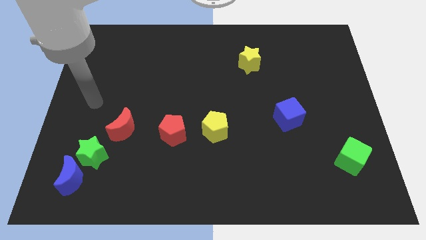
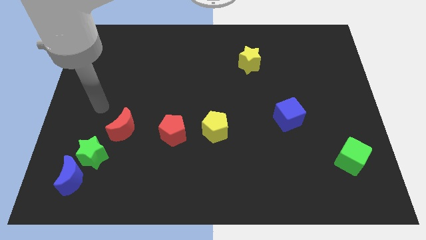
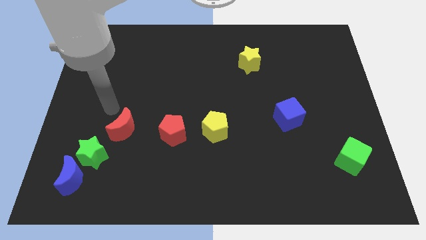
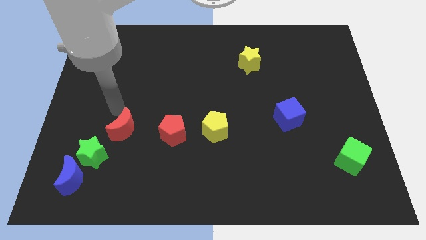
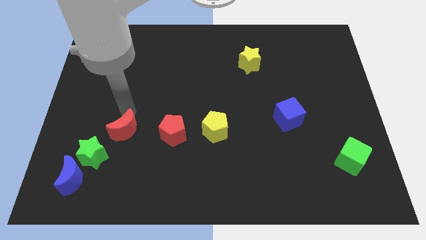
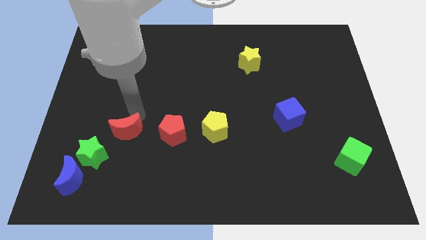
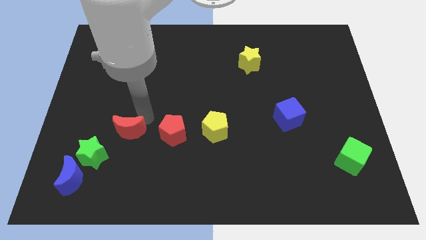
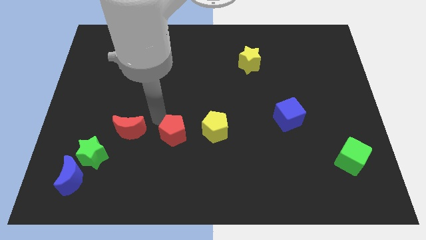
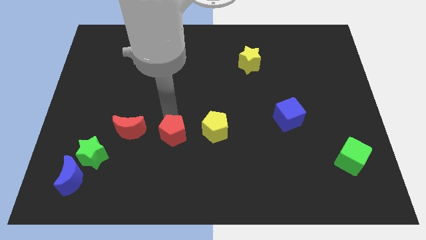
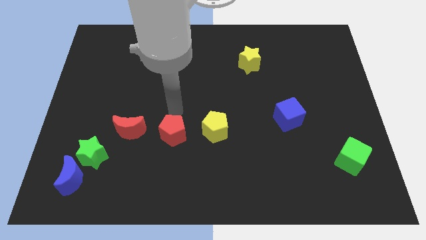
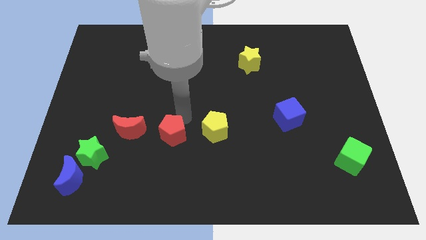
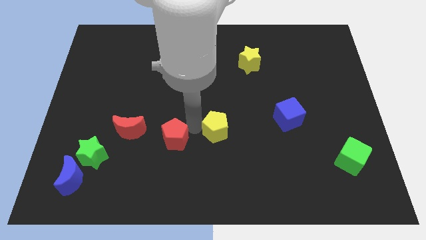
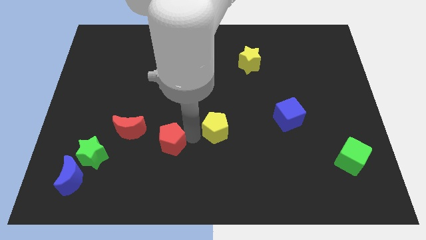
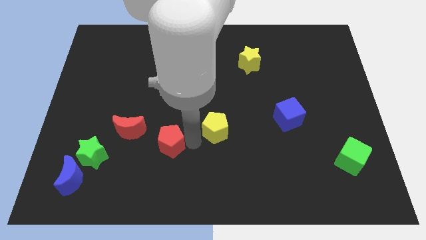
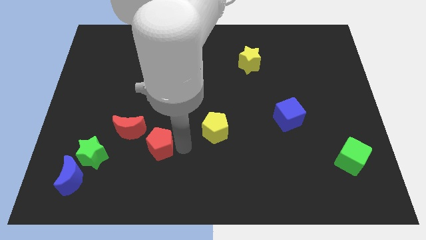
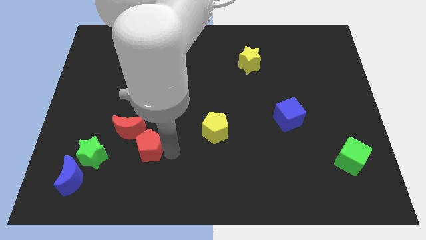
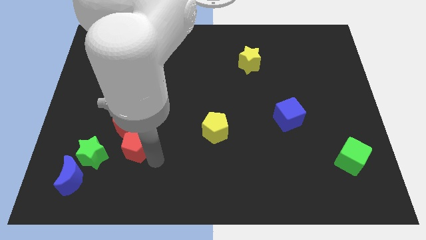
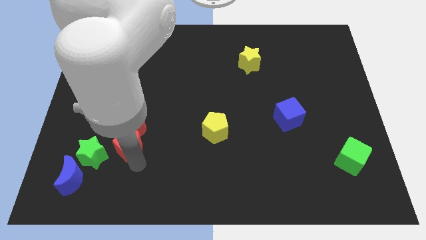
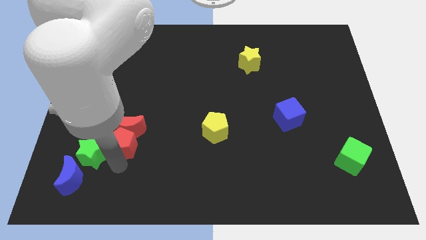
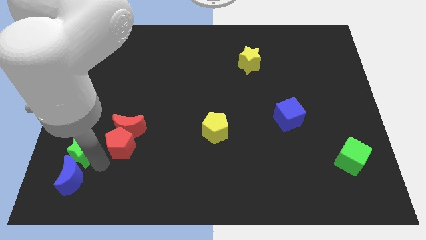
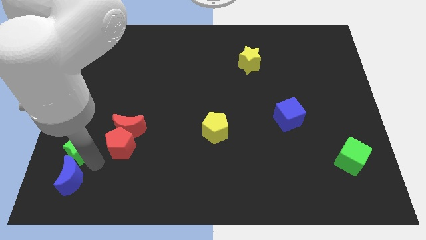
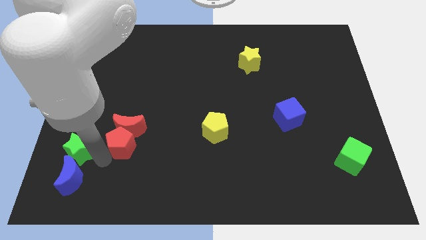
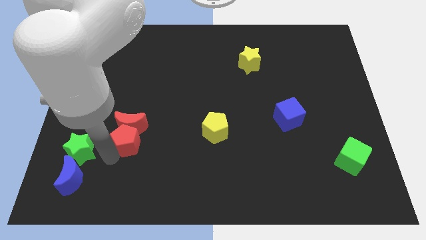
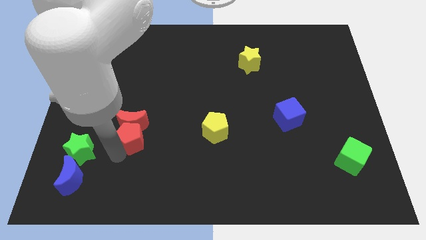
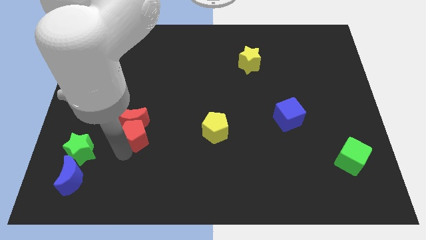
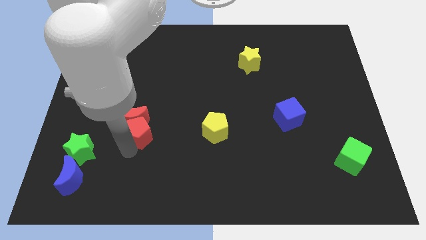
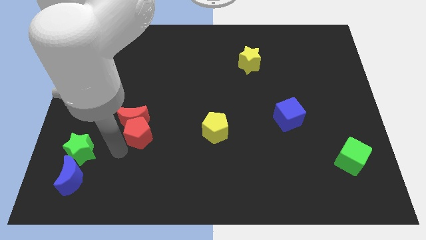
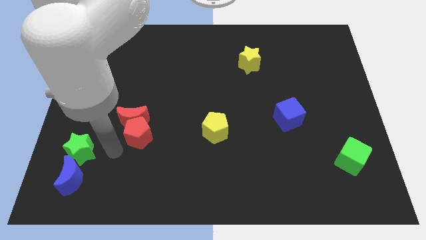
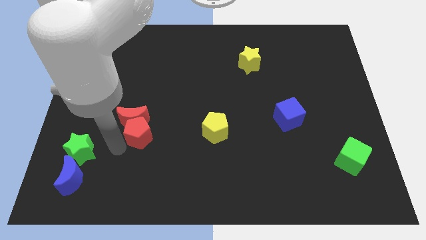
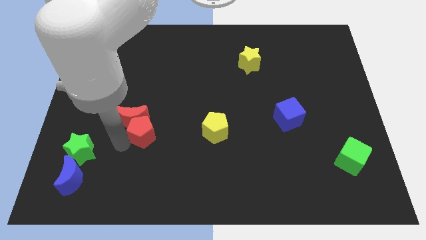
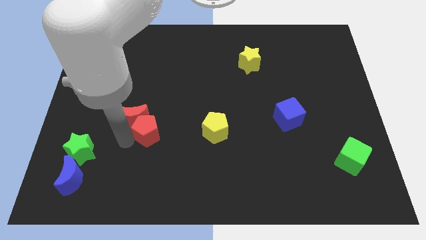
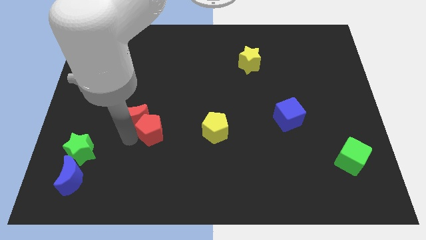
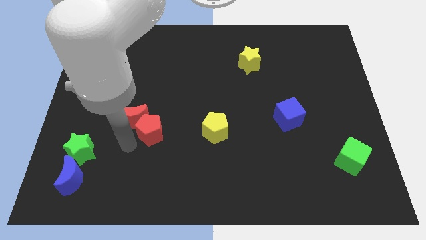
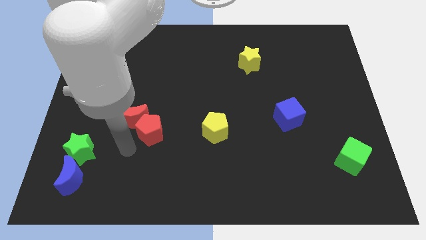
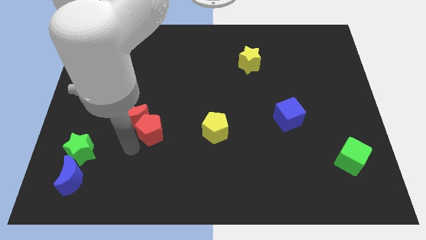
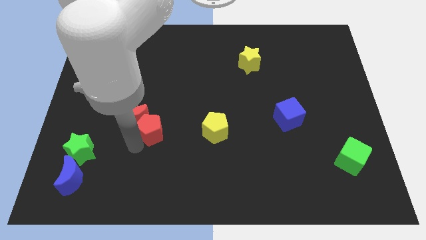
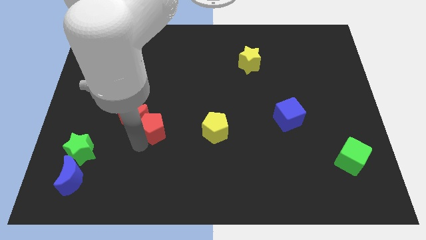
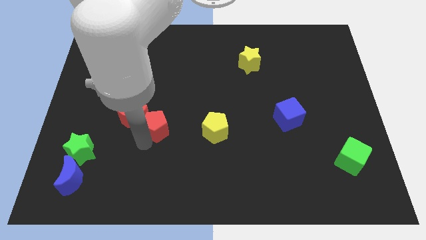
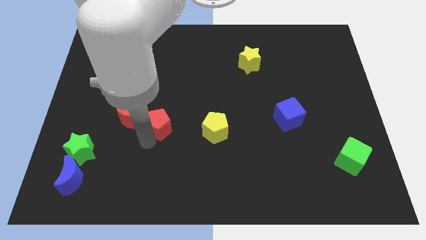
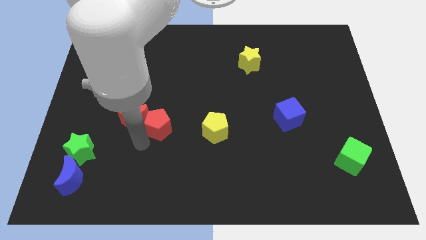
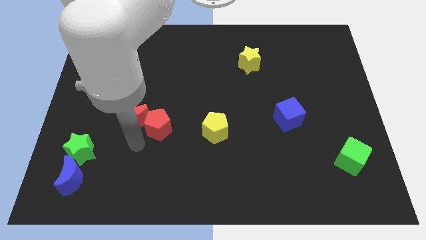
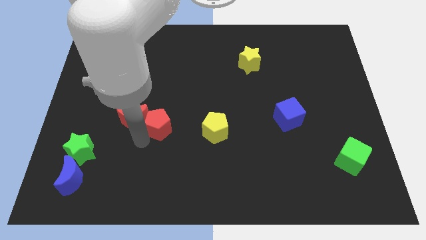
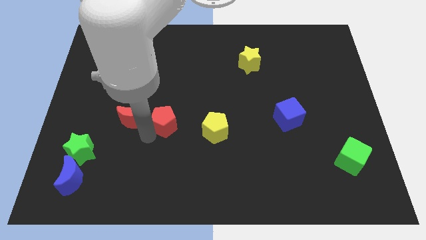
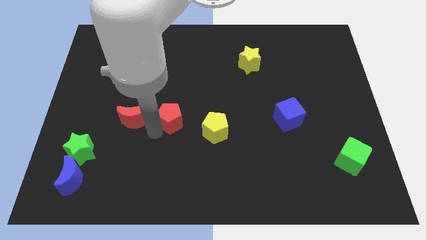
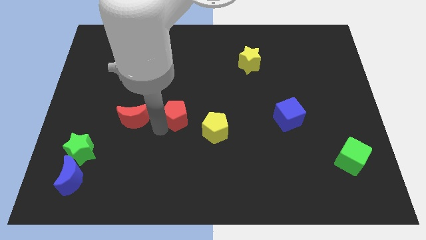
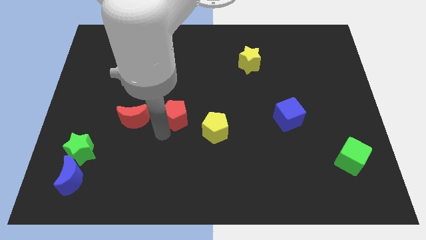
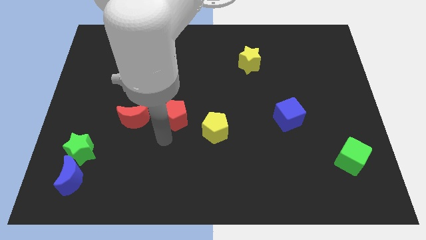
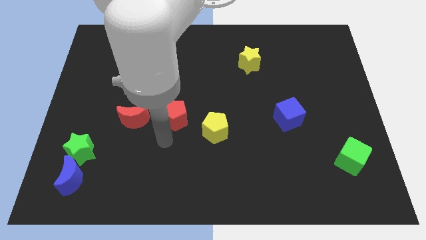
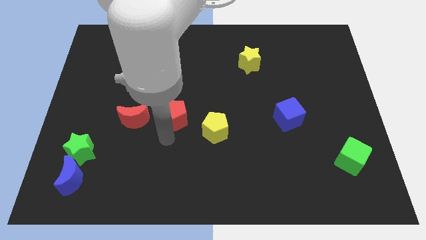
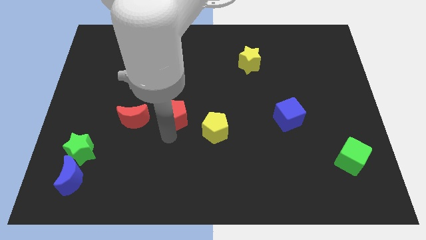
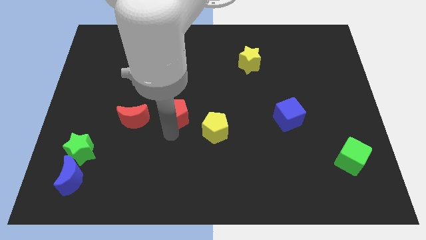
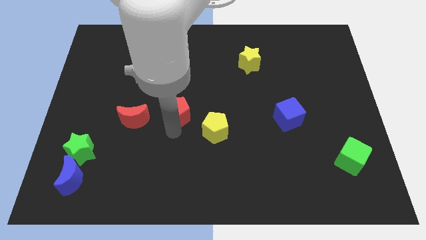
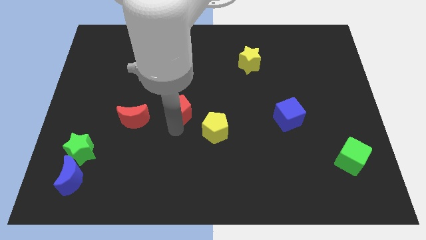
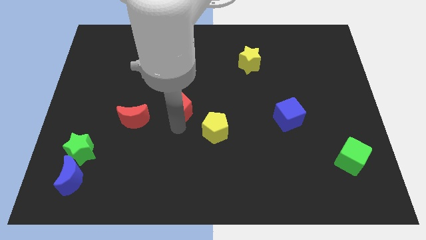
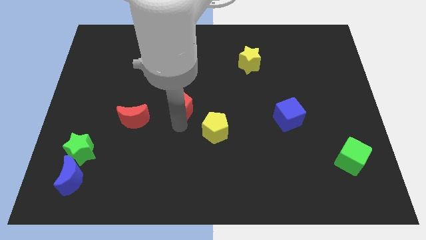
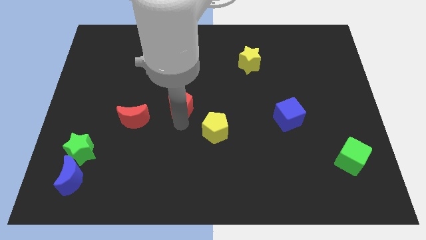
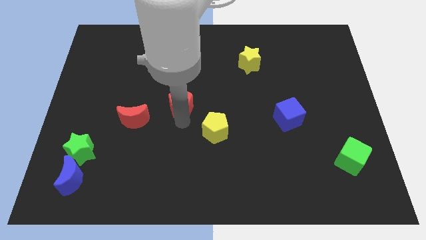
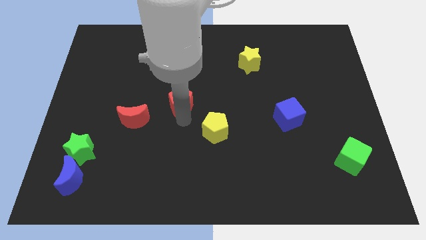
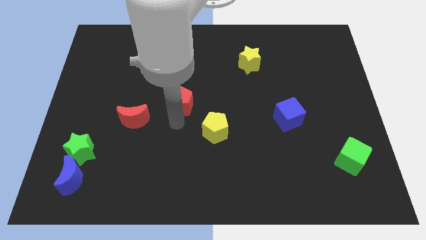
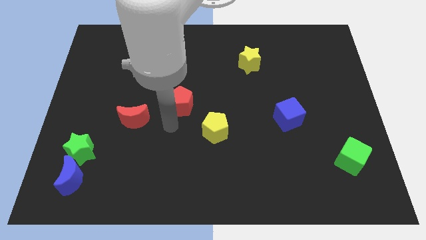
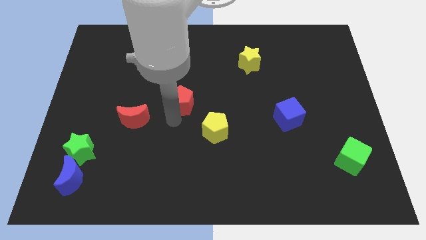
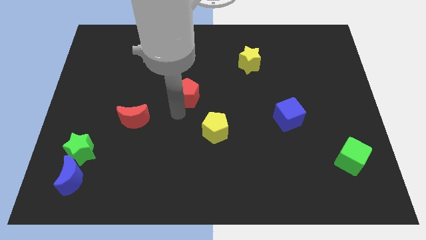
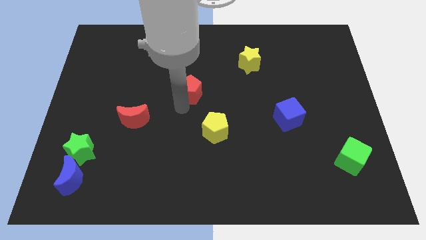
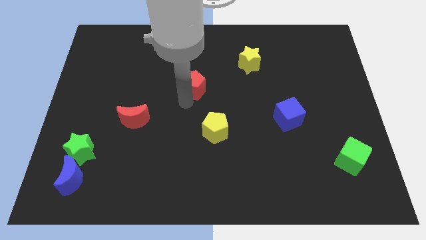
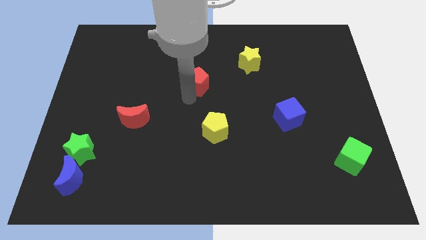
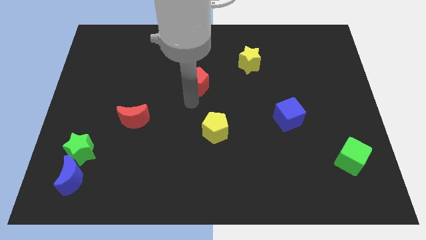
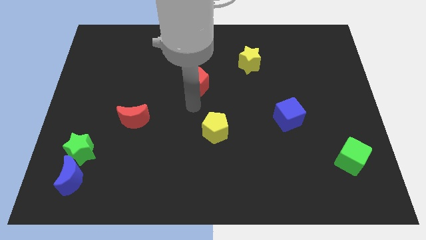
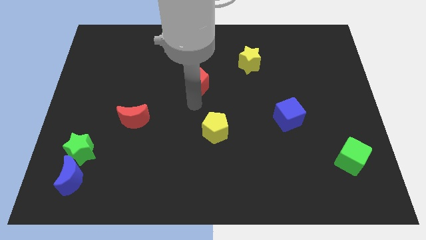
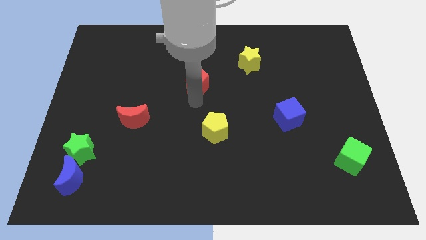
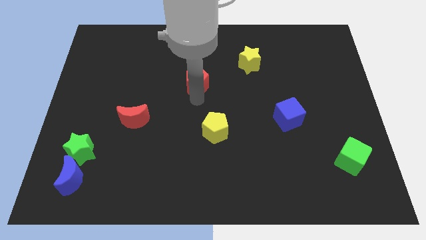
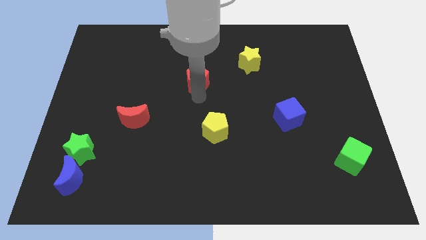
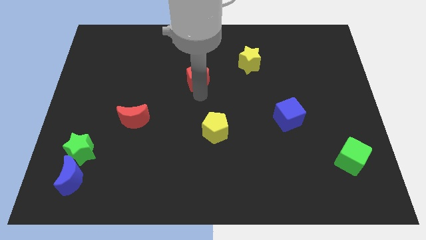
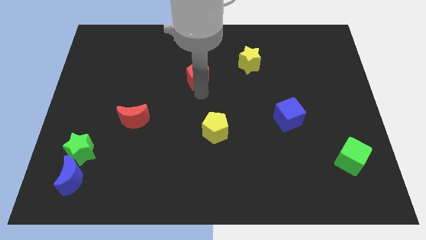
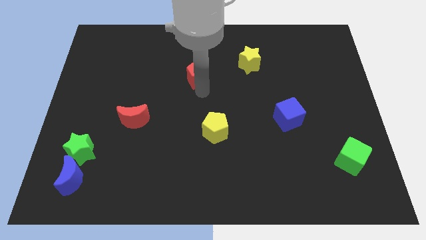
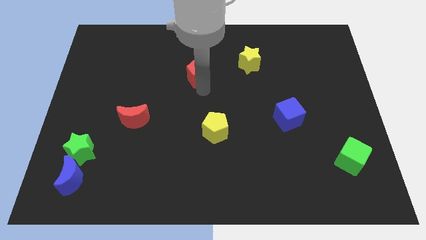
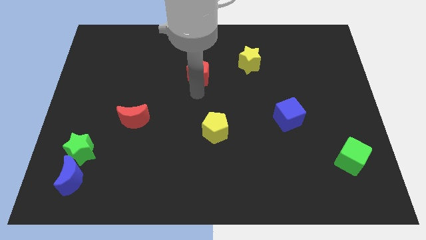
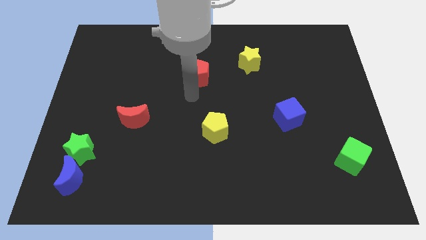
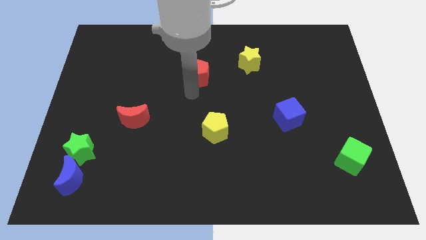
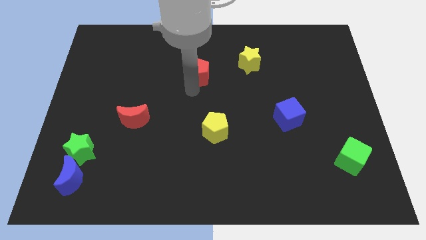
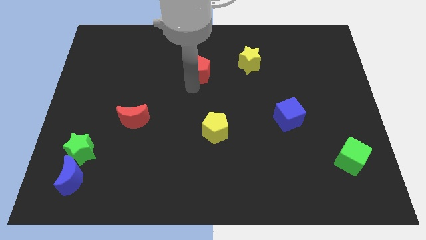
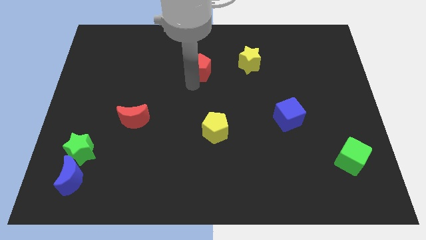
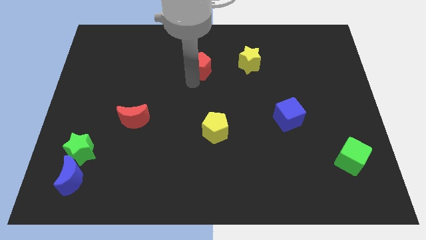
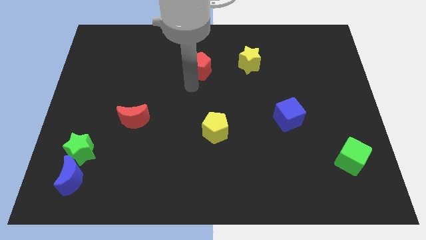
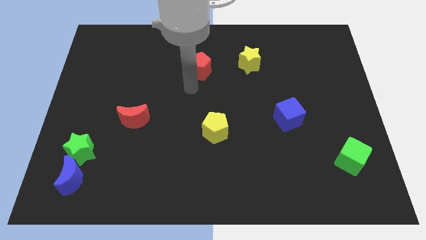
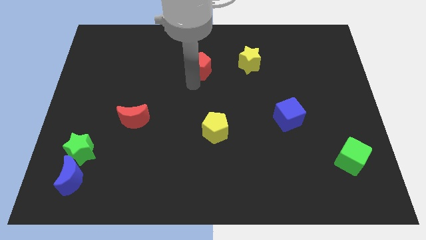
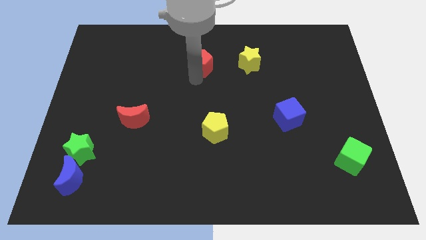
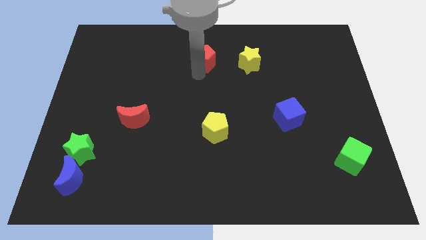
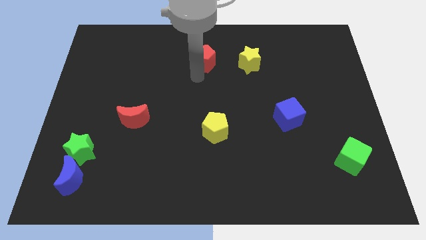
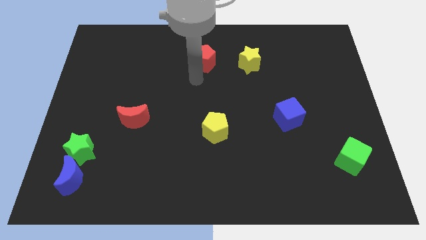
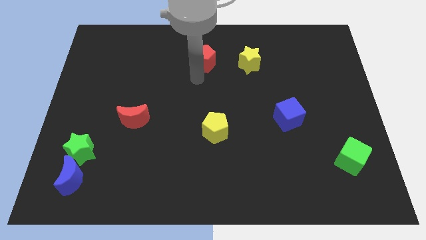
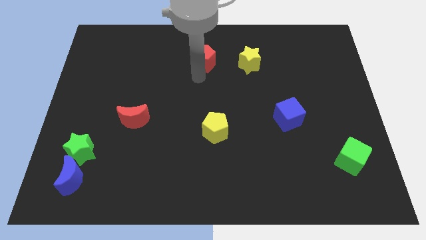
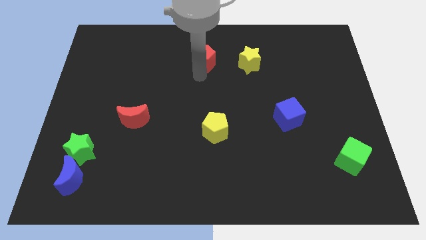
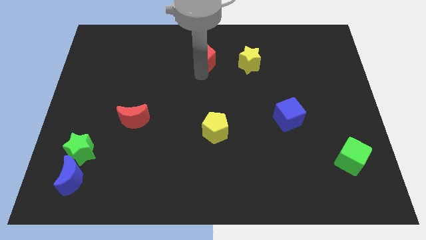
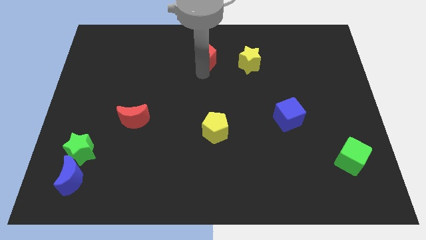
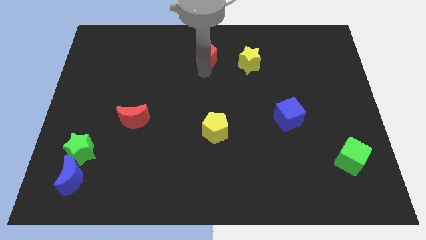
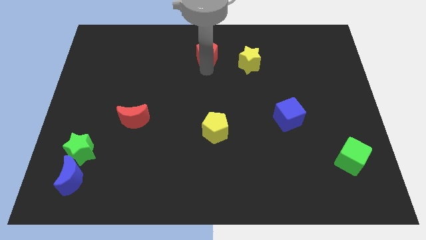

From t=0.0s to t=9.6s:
move the red pentagon to the towards your base
